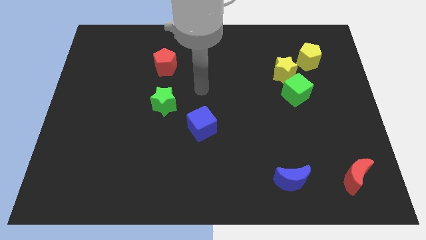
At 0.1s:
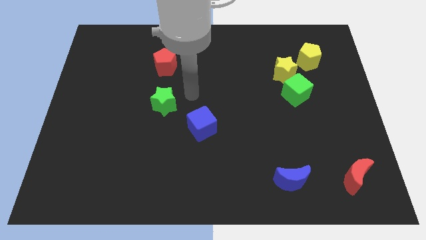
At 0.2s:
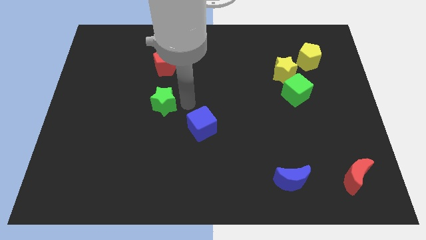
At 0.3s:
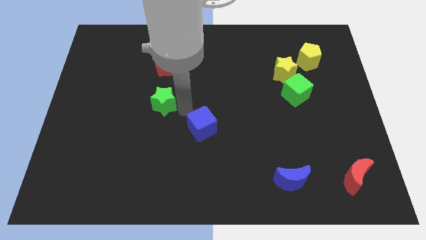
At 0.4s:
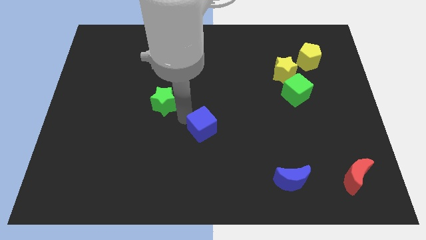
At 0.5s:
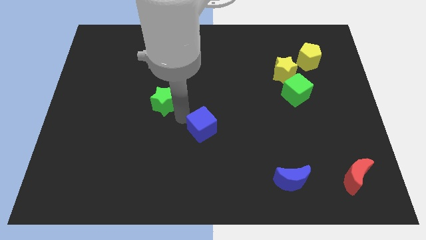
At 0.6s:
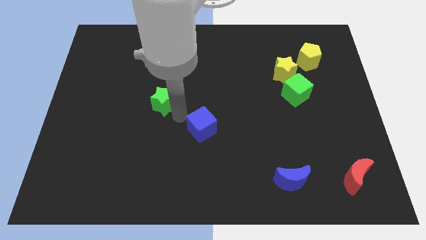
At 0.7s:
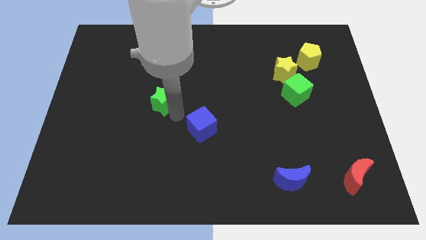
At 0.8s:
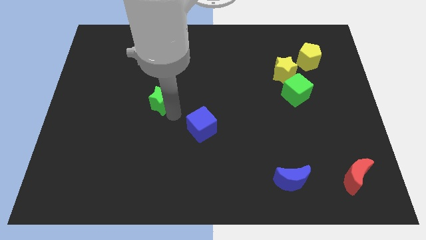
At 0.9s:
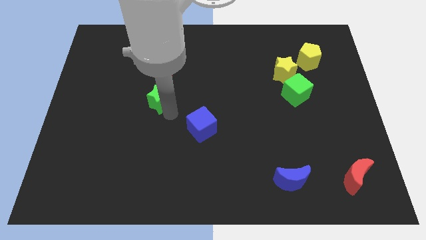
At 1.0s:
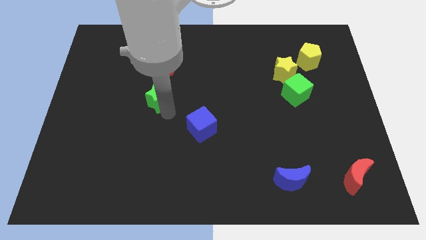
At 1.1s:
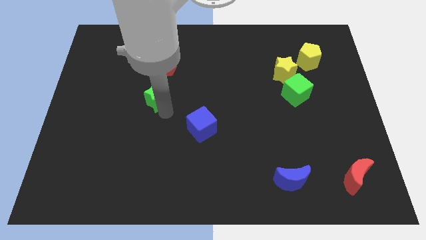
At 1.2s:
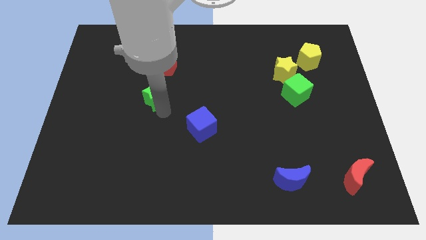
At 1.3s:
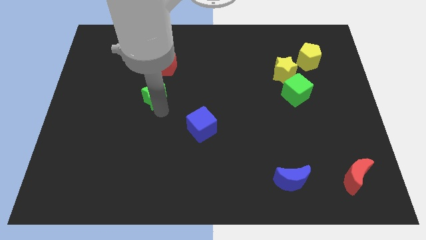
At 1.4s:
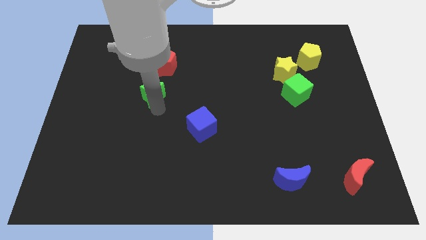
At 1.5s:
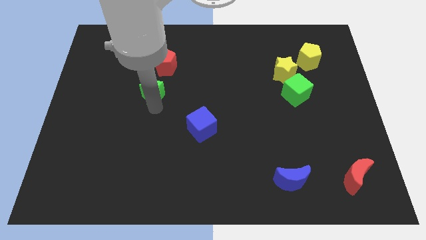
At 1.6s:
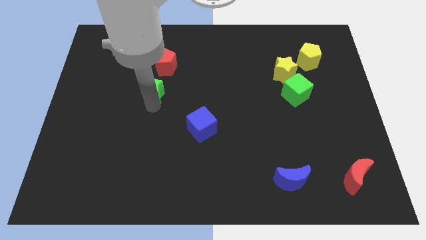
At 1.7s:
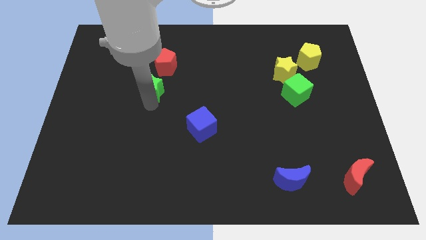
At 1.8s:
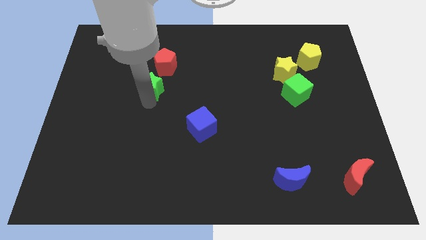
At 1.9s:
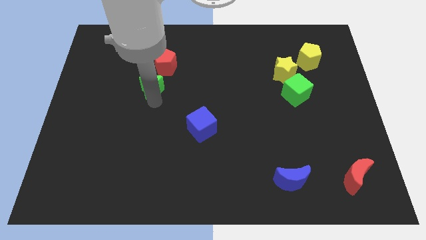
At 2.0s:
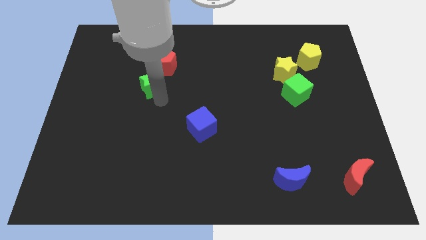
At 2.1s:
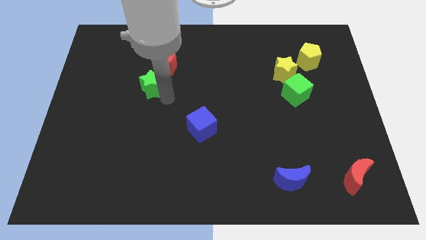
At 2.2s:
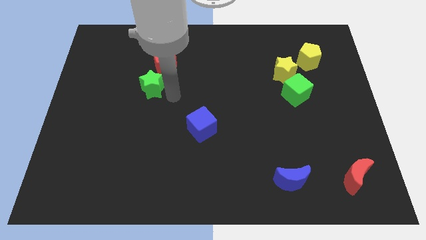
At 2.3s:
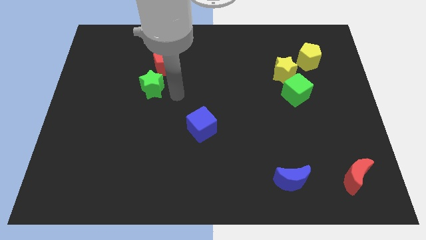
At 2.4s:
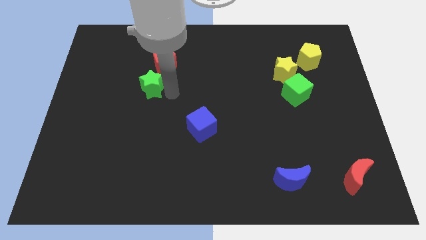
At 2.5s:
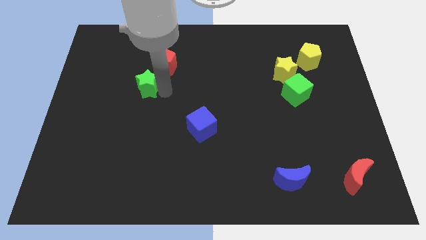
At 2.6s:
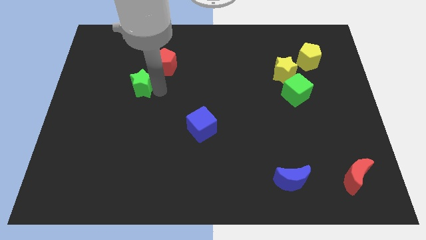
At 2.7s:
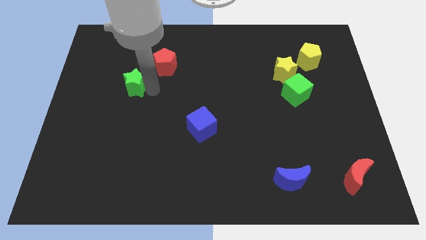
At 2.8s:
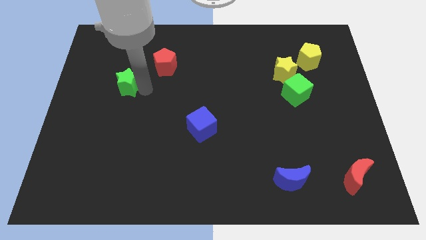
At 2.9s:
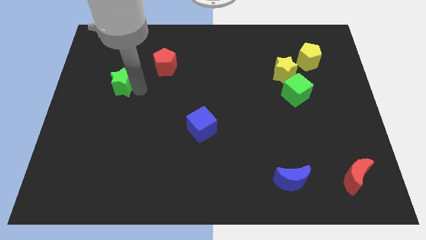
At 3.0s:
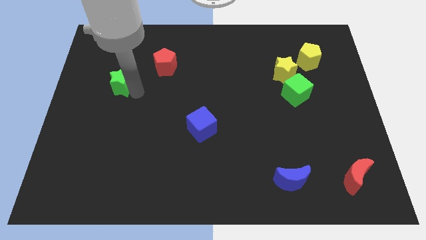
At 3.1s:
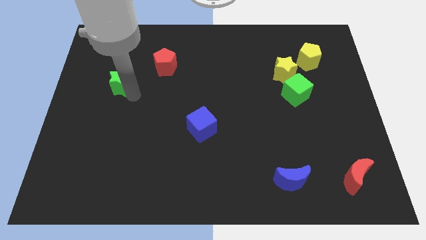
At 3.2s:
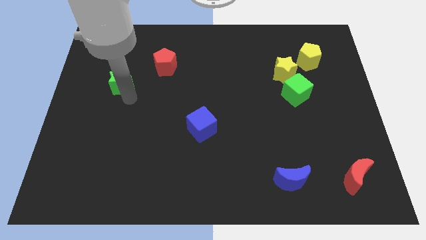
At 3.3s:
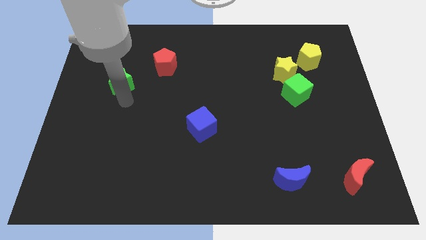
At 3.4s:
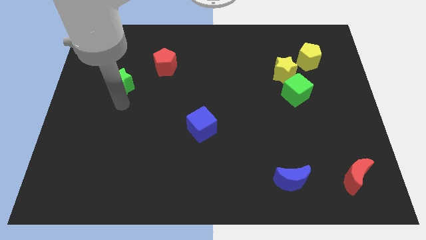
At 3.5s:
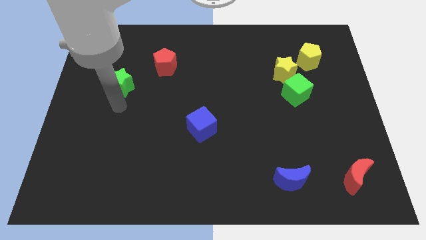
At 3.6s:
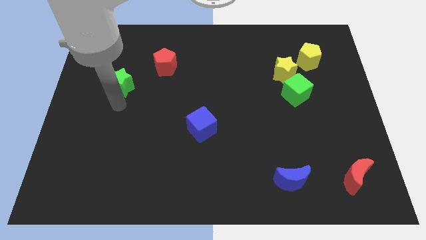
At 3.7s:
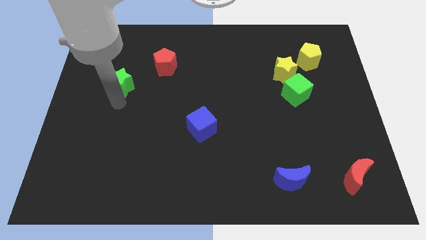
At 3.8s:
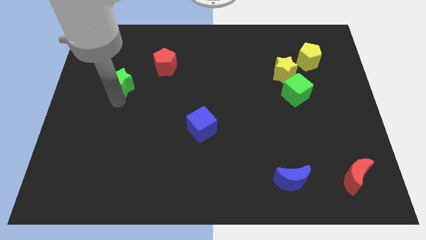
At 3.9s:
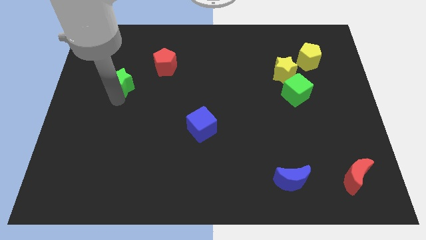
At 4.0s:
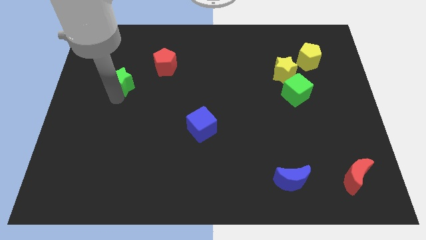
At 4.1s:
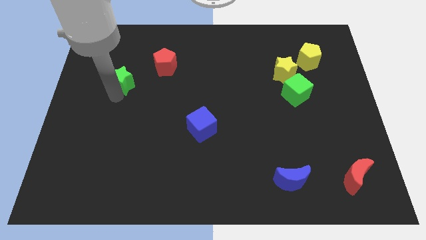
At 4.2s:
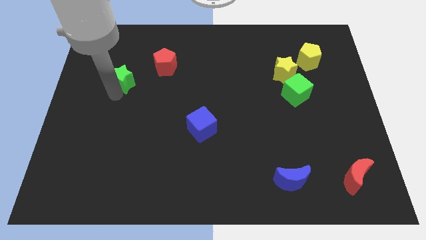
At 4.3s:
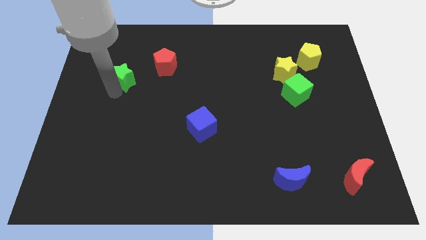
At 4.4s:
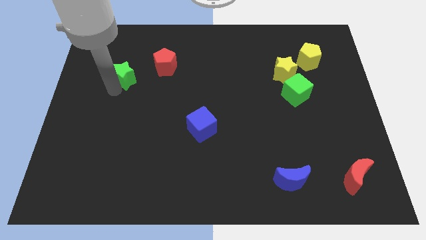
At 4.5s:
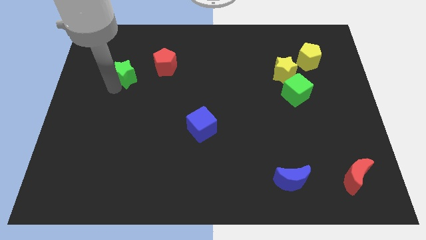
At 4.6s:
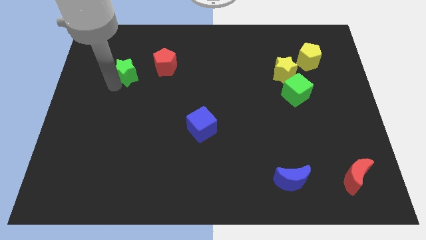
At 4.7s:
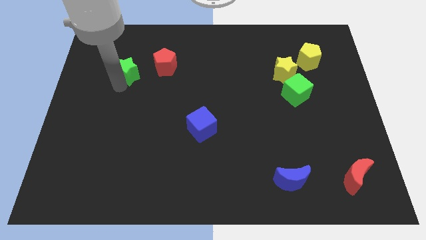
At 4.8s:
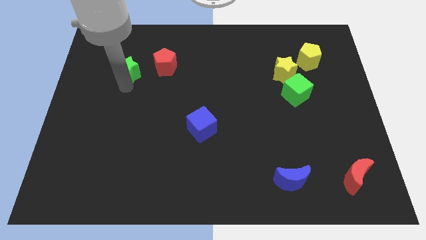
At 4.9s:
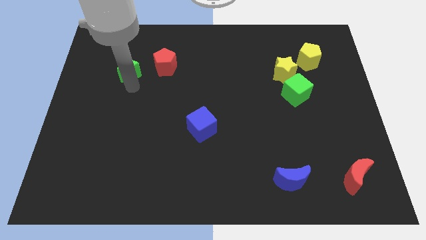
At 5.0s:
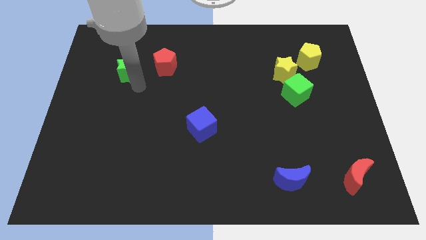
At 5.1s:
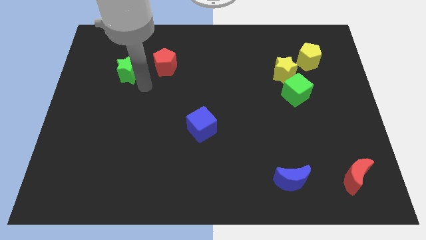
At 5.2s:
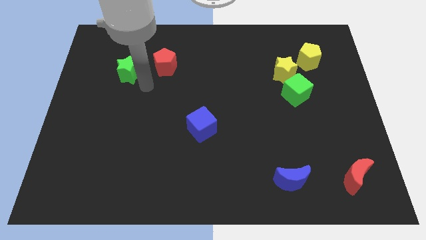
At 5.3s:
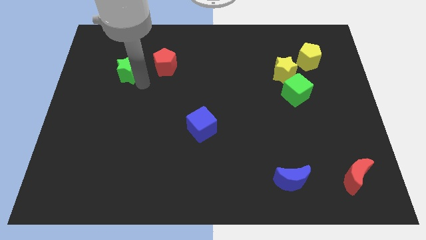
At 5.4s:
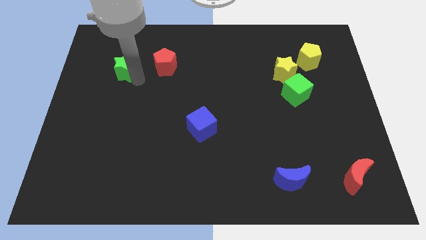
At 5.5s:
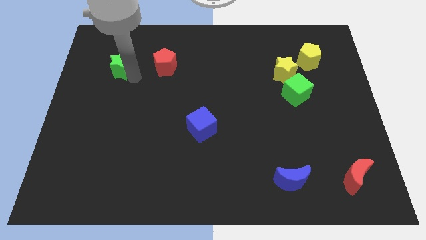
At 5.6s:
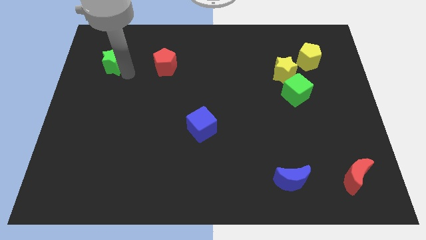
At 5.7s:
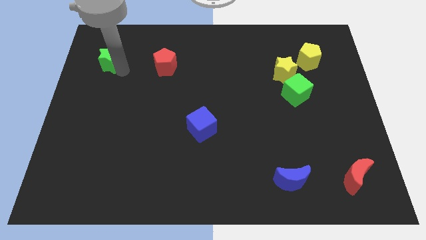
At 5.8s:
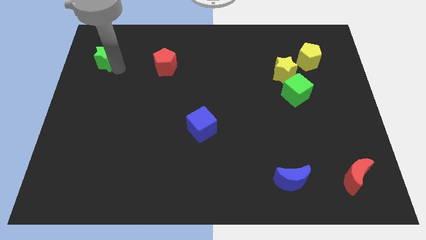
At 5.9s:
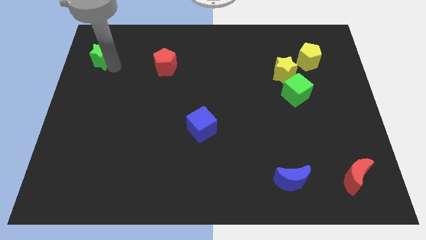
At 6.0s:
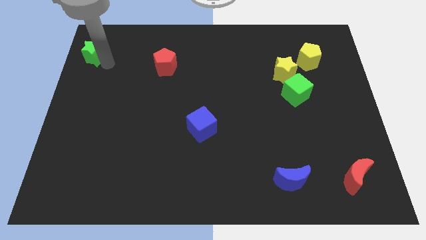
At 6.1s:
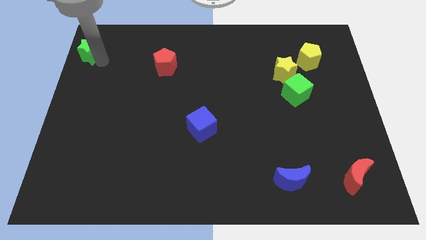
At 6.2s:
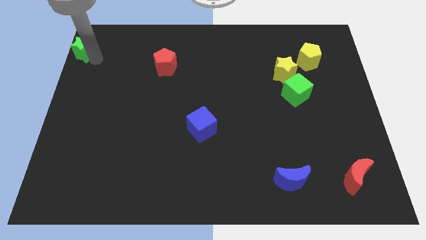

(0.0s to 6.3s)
move the green star to the upper left corner
